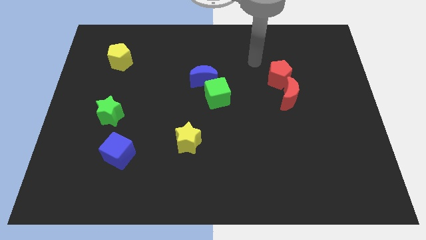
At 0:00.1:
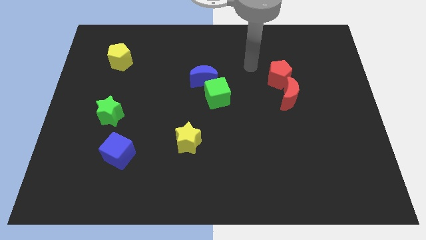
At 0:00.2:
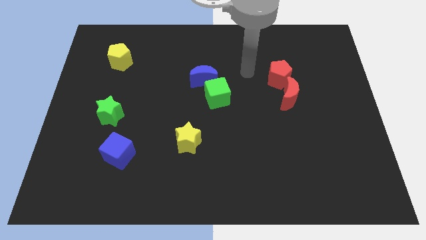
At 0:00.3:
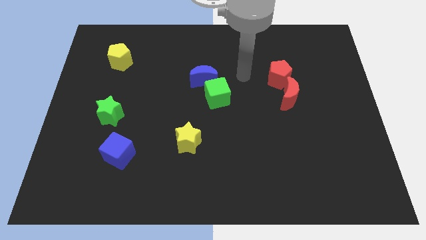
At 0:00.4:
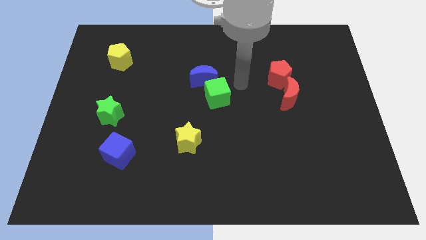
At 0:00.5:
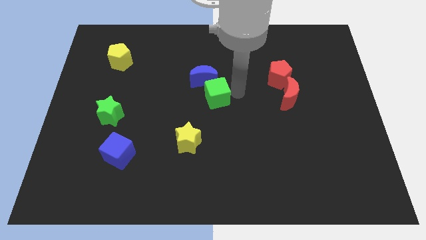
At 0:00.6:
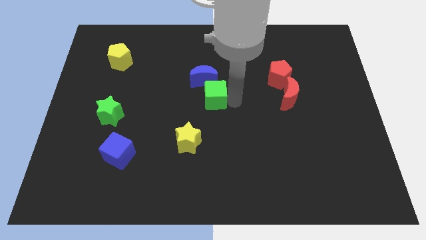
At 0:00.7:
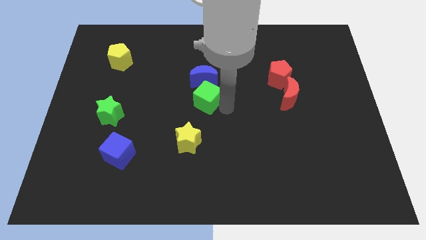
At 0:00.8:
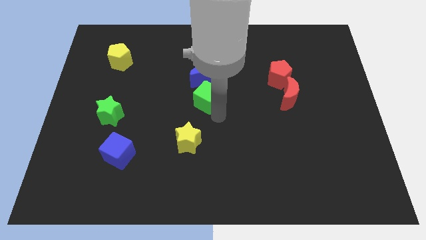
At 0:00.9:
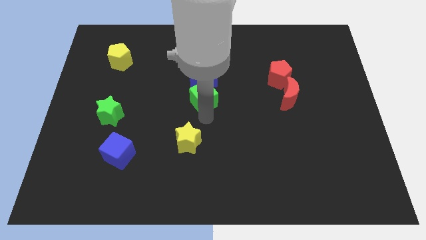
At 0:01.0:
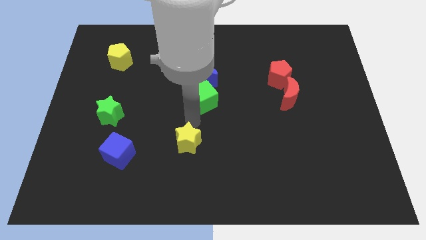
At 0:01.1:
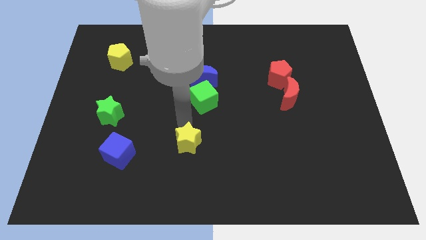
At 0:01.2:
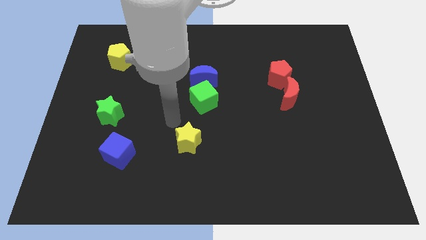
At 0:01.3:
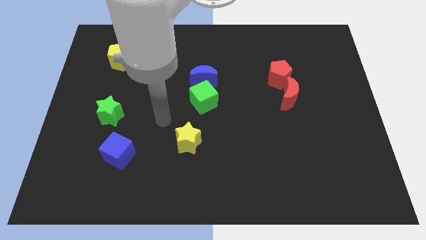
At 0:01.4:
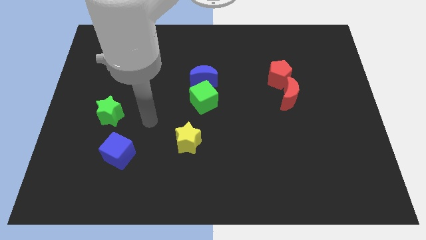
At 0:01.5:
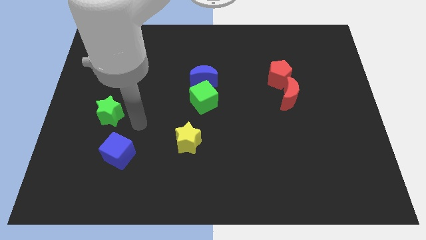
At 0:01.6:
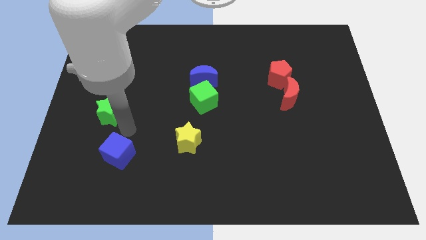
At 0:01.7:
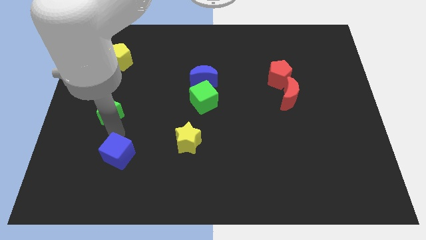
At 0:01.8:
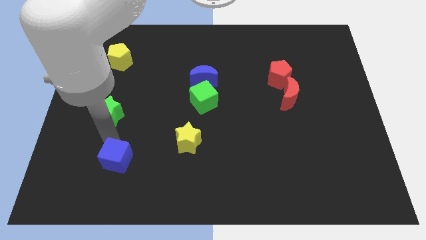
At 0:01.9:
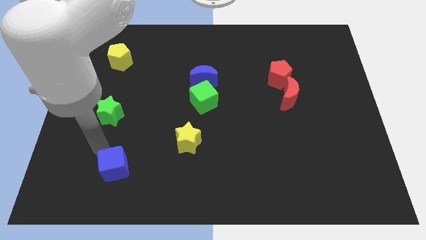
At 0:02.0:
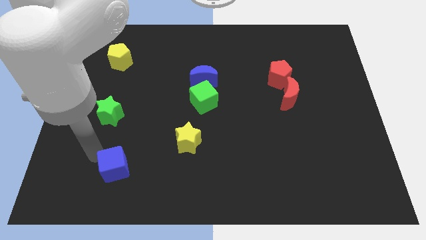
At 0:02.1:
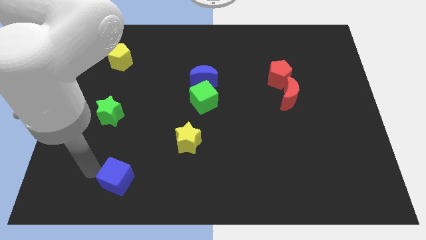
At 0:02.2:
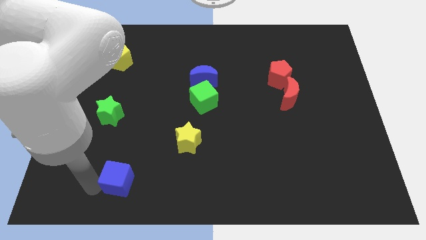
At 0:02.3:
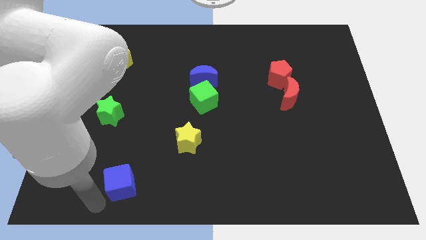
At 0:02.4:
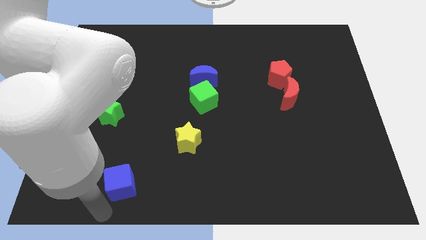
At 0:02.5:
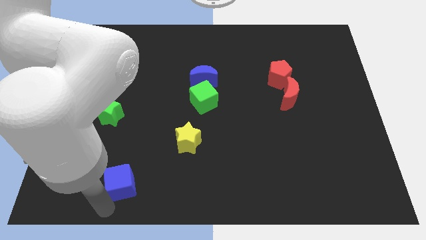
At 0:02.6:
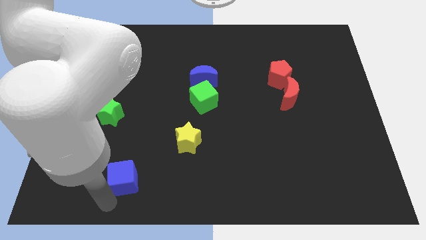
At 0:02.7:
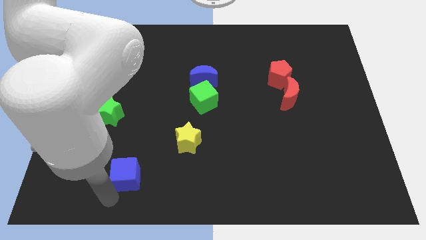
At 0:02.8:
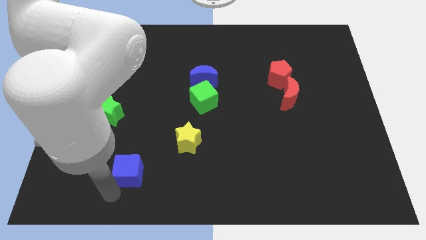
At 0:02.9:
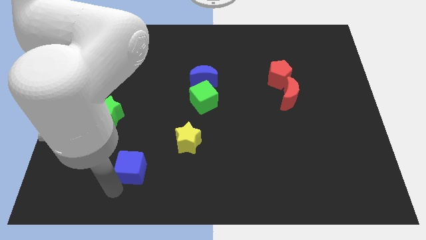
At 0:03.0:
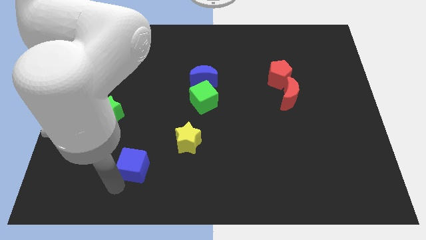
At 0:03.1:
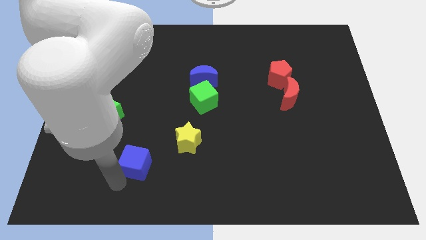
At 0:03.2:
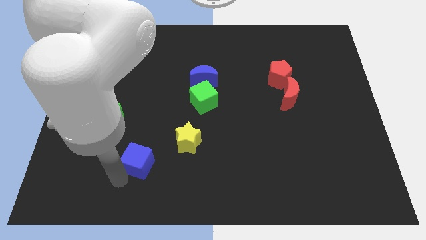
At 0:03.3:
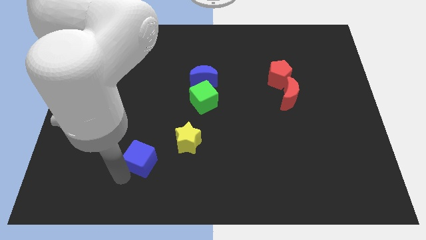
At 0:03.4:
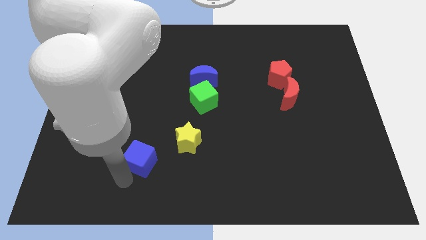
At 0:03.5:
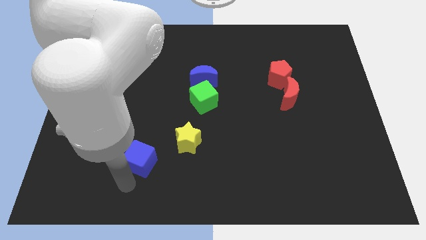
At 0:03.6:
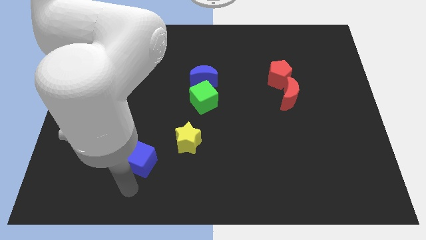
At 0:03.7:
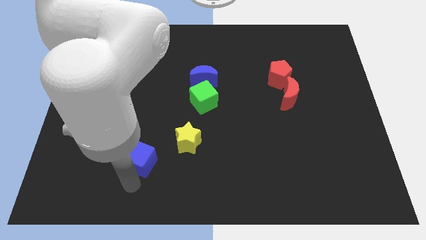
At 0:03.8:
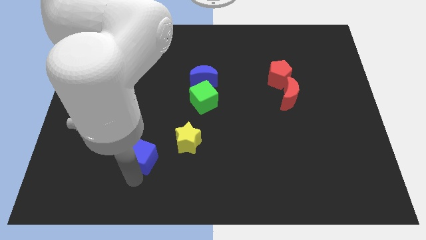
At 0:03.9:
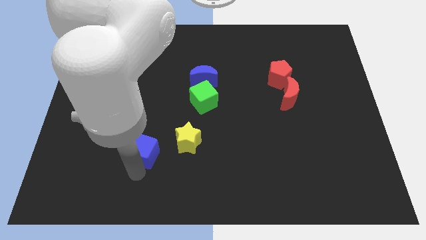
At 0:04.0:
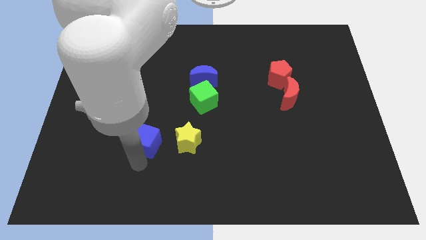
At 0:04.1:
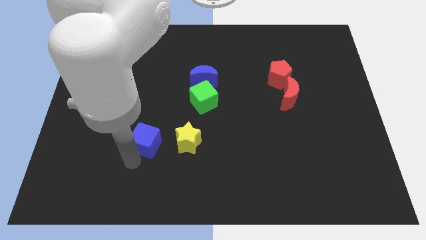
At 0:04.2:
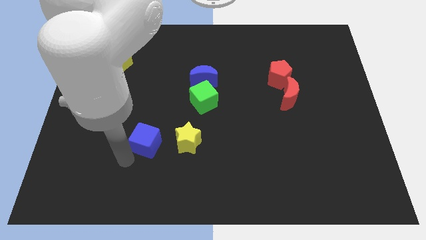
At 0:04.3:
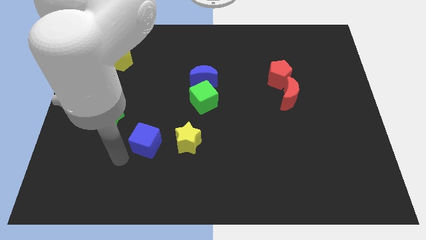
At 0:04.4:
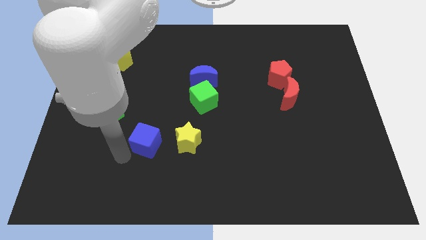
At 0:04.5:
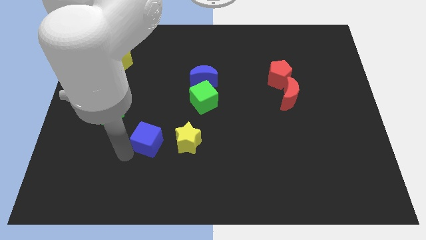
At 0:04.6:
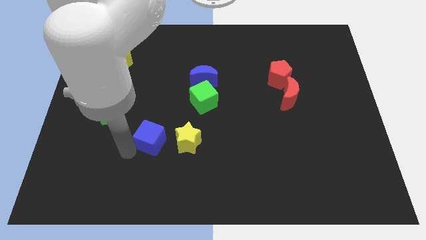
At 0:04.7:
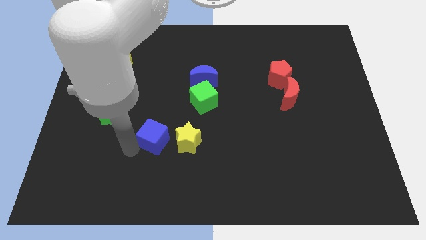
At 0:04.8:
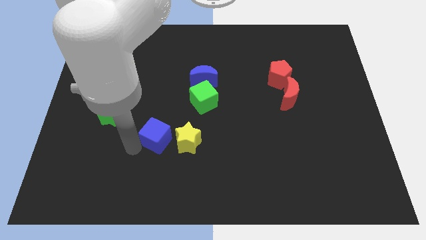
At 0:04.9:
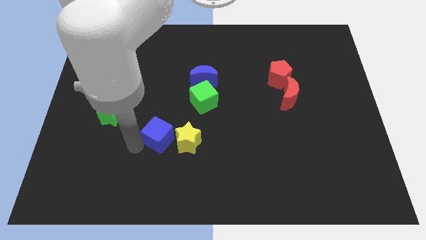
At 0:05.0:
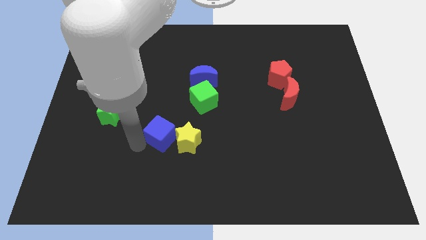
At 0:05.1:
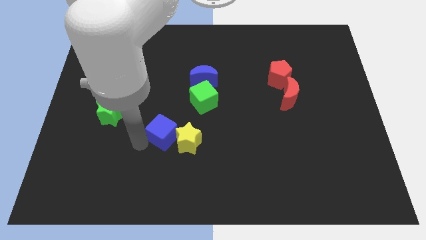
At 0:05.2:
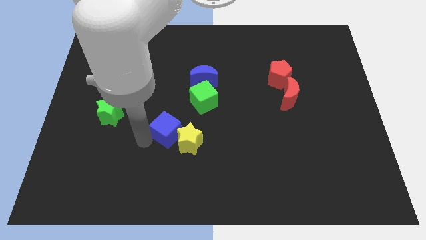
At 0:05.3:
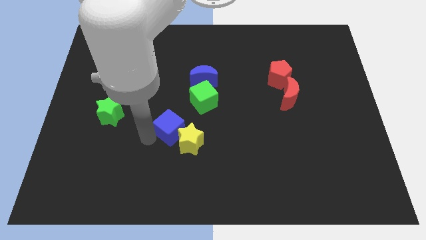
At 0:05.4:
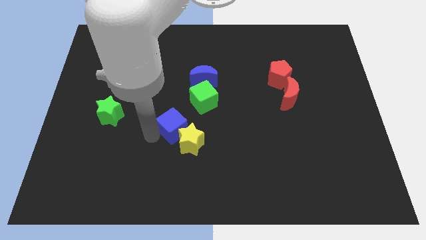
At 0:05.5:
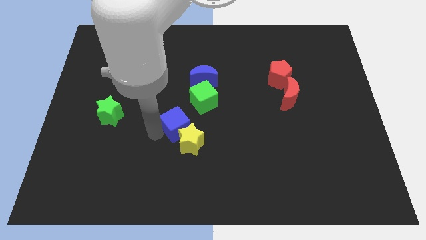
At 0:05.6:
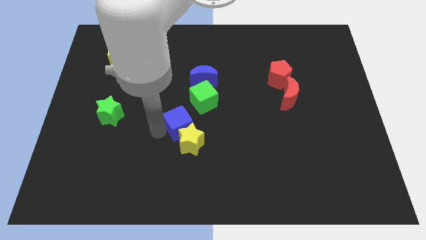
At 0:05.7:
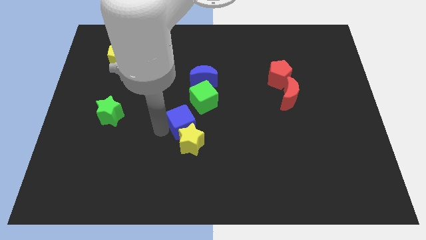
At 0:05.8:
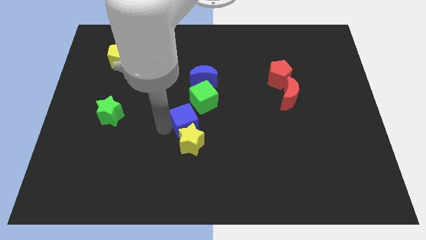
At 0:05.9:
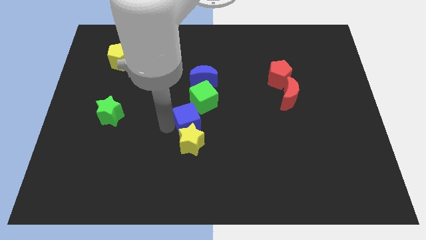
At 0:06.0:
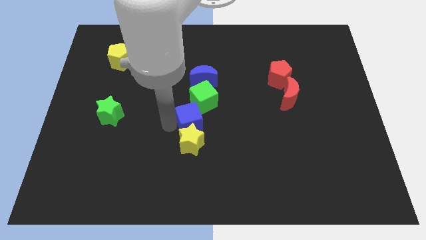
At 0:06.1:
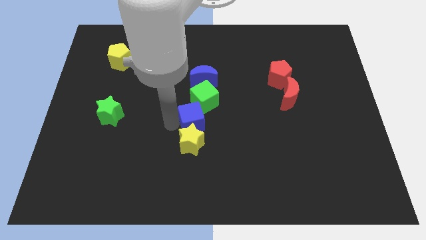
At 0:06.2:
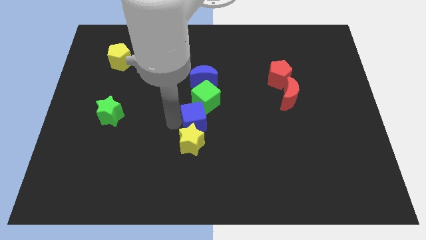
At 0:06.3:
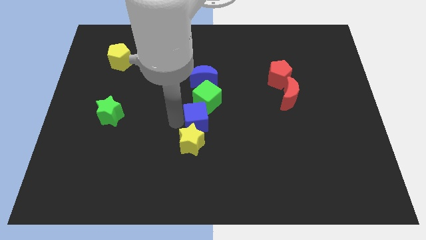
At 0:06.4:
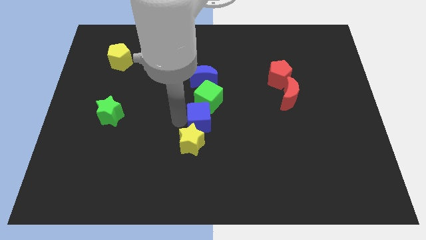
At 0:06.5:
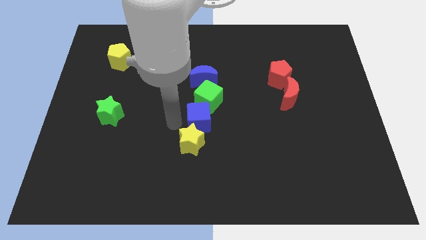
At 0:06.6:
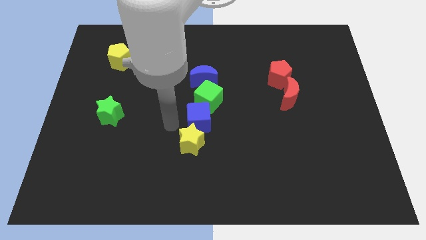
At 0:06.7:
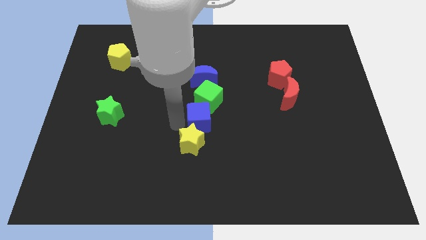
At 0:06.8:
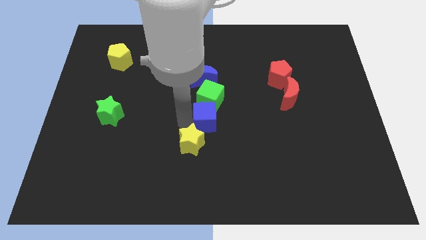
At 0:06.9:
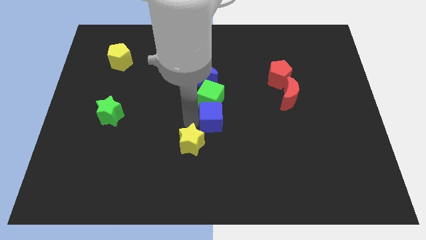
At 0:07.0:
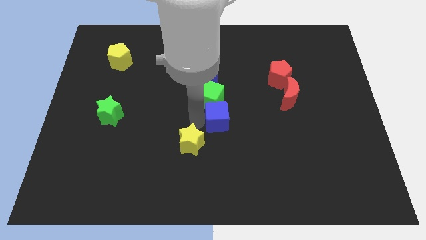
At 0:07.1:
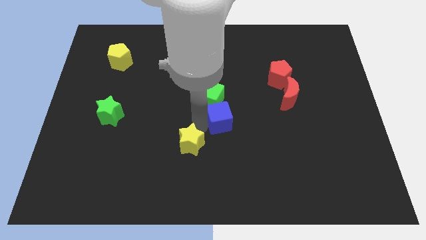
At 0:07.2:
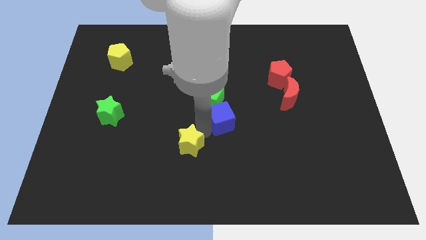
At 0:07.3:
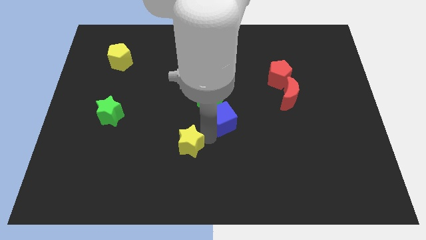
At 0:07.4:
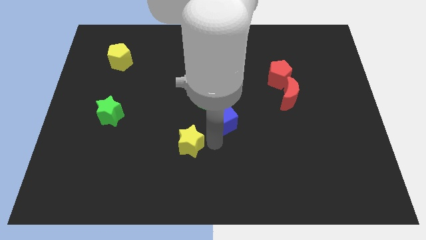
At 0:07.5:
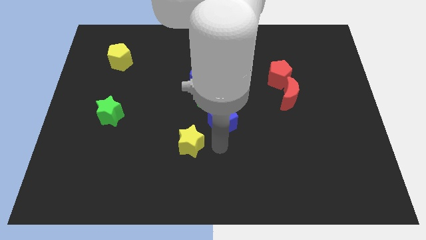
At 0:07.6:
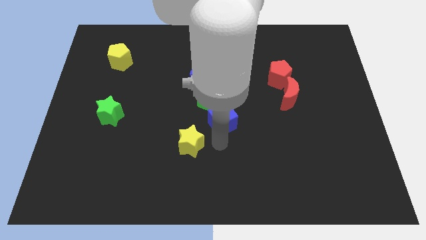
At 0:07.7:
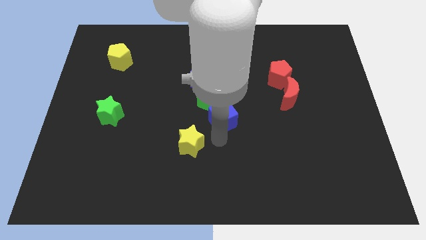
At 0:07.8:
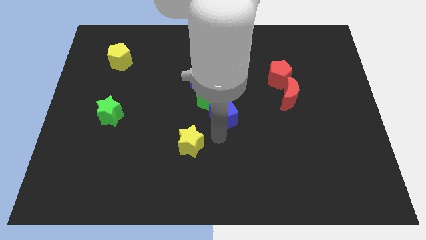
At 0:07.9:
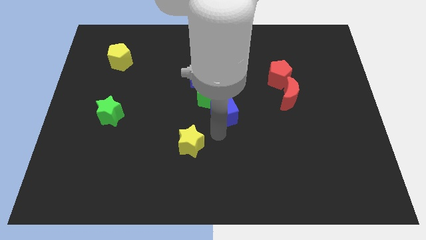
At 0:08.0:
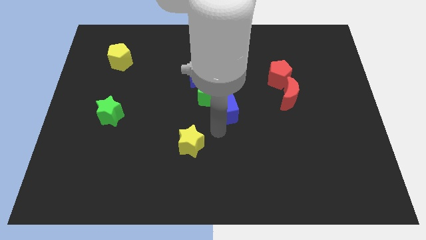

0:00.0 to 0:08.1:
slide the blue cube diagonally down and to the right of the blue moon
